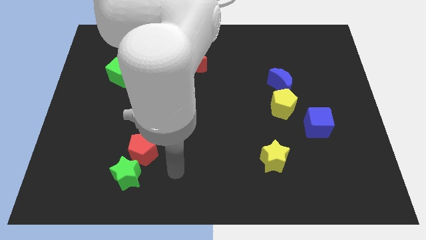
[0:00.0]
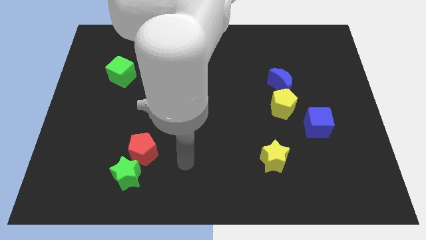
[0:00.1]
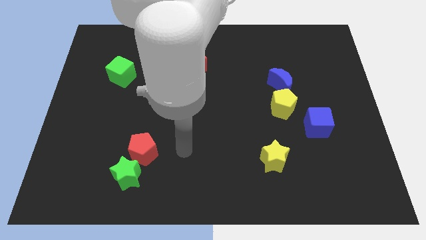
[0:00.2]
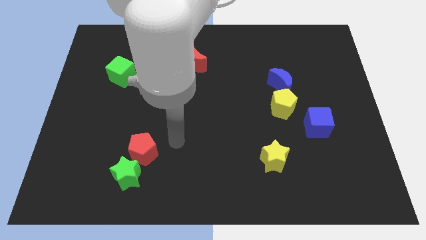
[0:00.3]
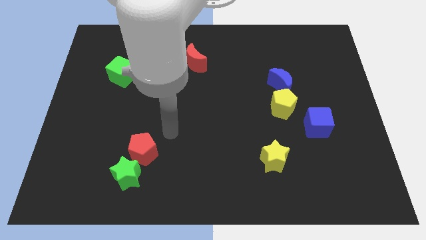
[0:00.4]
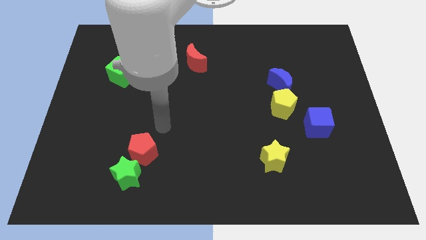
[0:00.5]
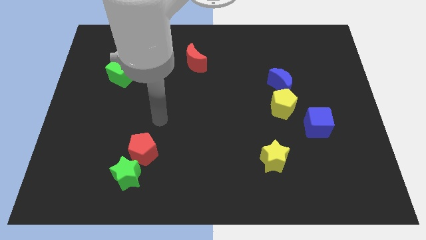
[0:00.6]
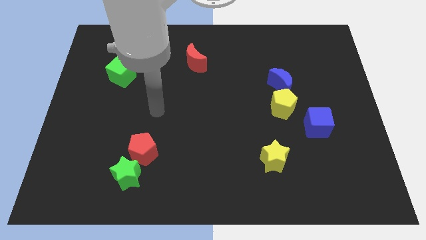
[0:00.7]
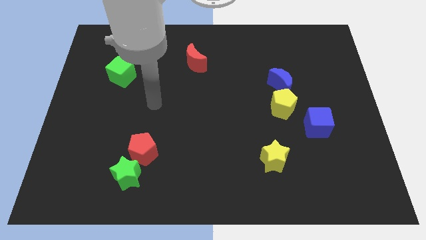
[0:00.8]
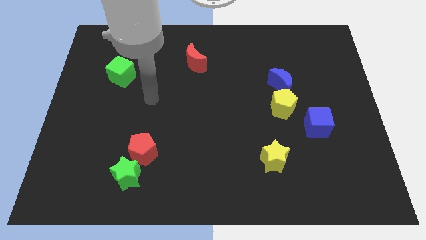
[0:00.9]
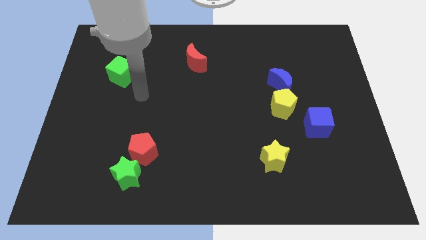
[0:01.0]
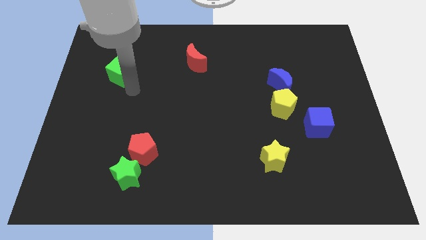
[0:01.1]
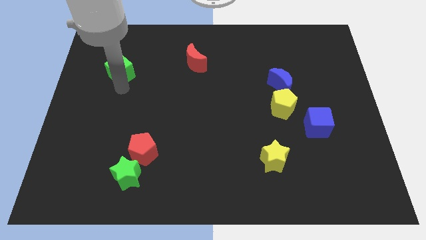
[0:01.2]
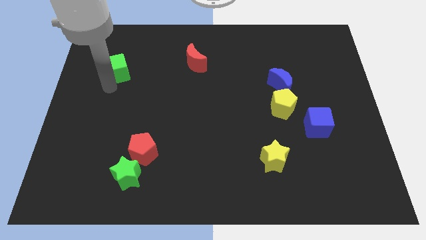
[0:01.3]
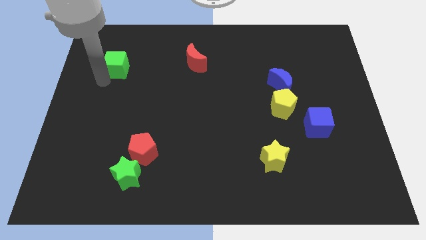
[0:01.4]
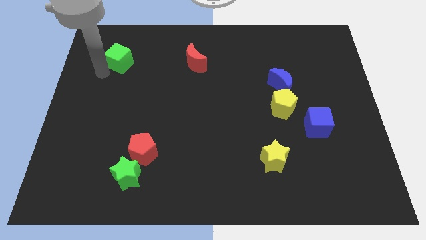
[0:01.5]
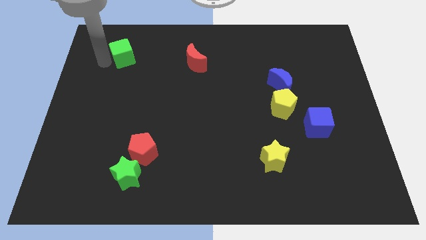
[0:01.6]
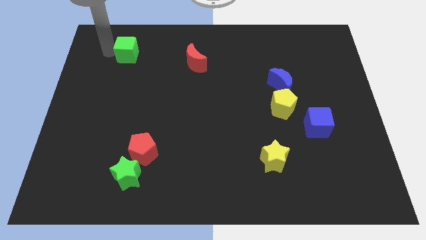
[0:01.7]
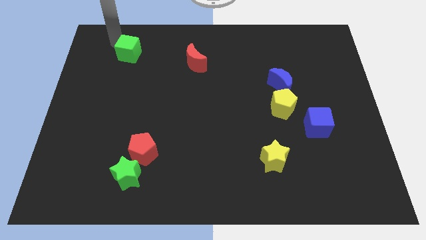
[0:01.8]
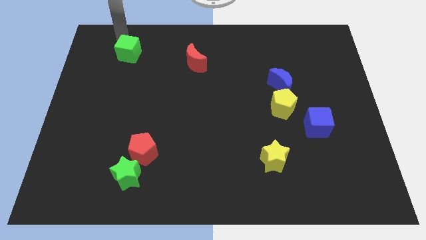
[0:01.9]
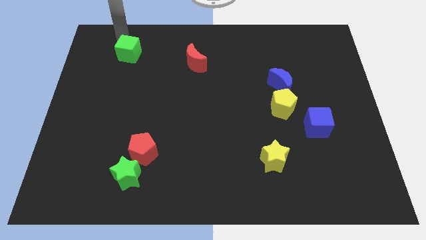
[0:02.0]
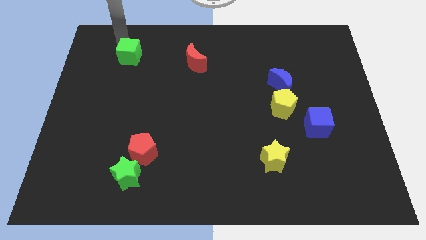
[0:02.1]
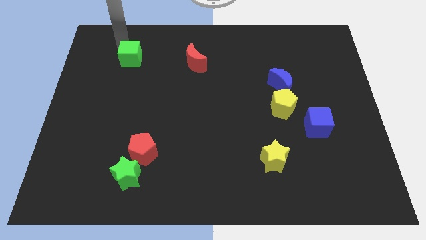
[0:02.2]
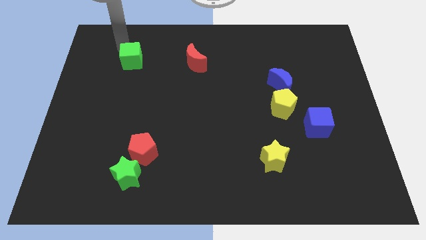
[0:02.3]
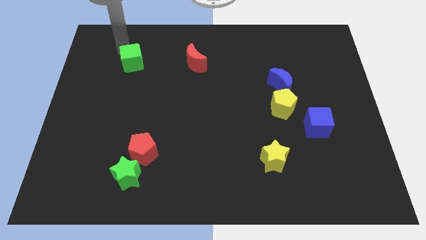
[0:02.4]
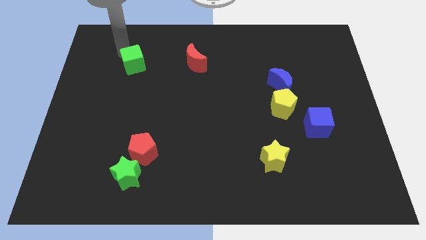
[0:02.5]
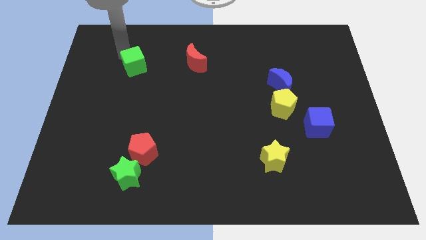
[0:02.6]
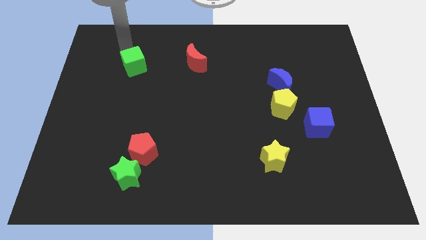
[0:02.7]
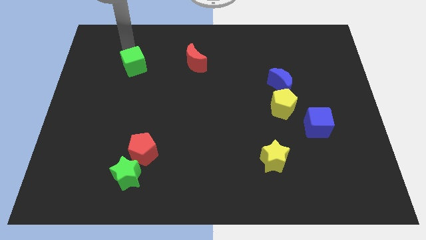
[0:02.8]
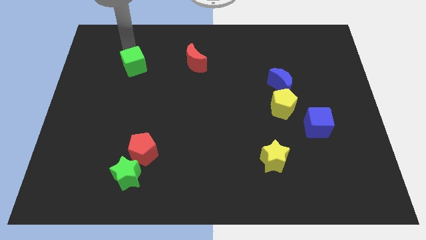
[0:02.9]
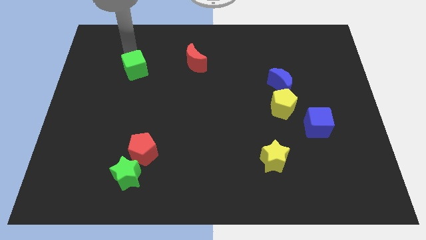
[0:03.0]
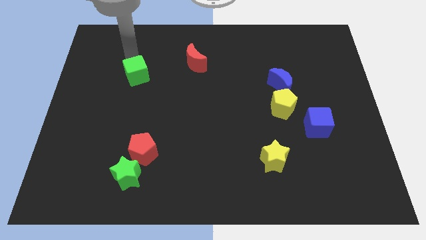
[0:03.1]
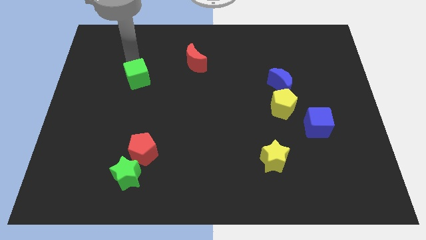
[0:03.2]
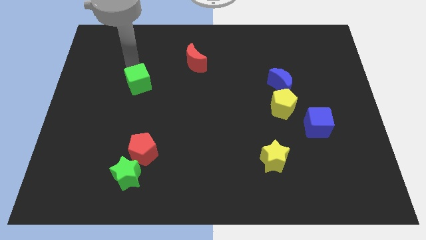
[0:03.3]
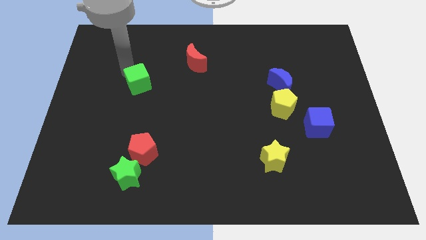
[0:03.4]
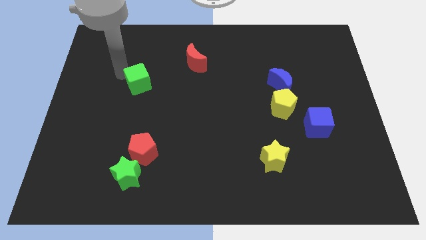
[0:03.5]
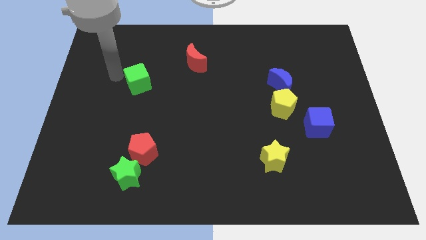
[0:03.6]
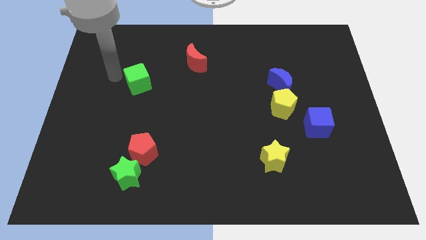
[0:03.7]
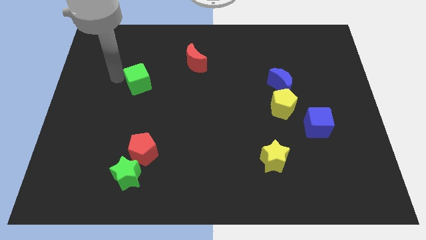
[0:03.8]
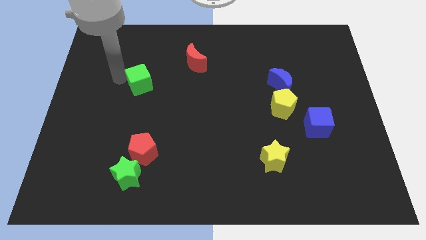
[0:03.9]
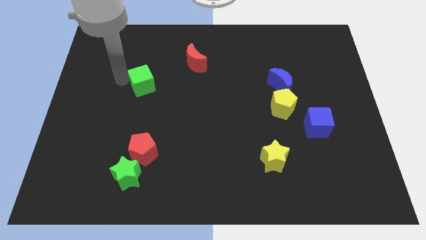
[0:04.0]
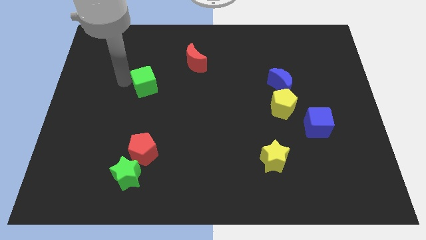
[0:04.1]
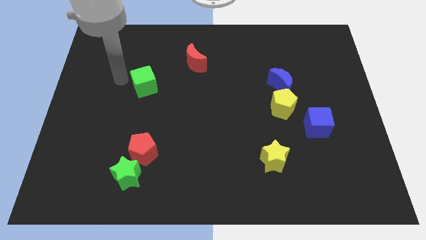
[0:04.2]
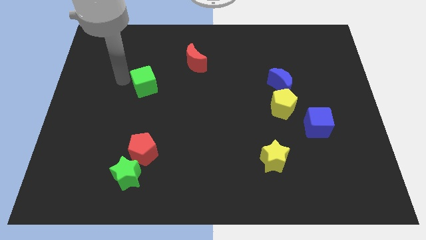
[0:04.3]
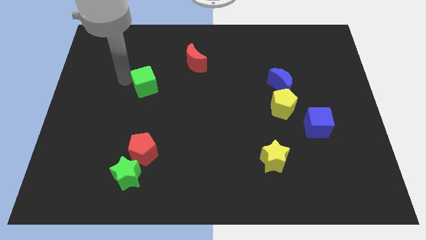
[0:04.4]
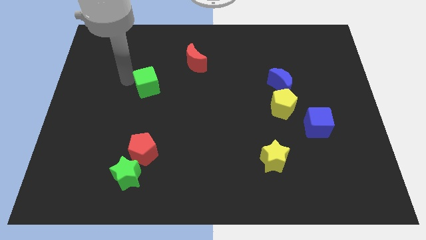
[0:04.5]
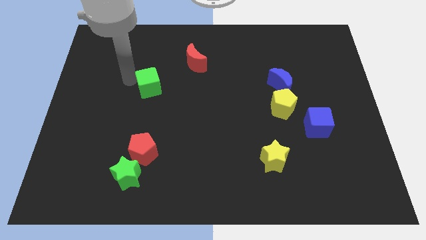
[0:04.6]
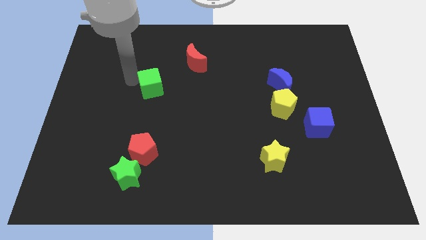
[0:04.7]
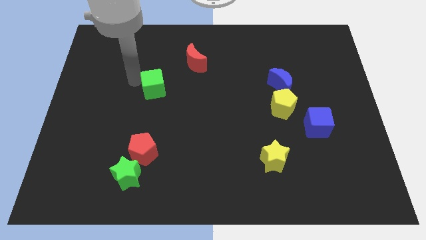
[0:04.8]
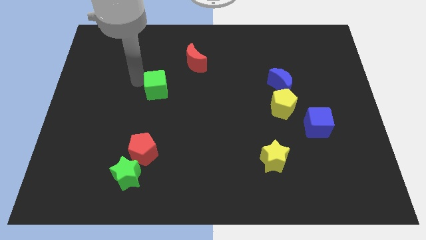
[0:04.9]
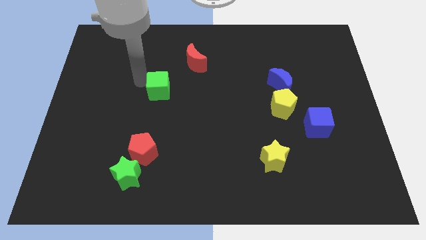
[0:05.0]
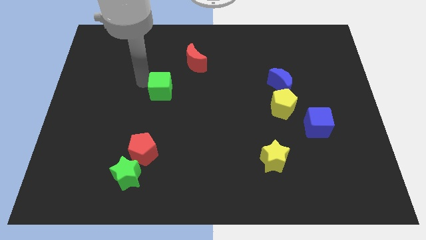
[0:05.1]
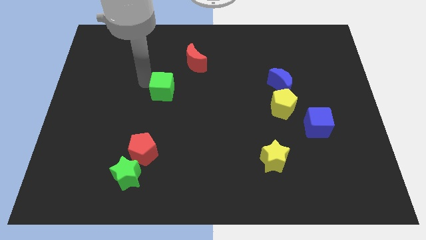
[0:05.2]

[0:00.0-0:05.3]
put the green cube to the center

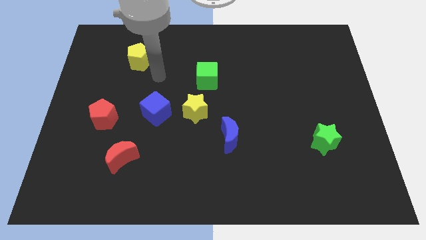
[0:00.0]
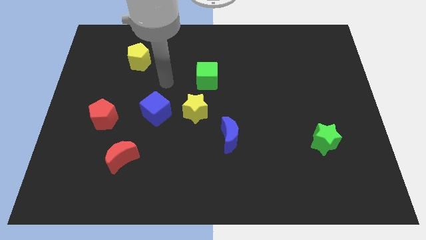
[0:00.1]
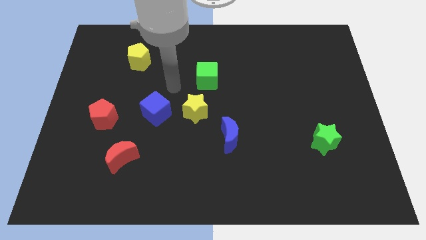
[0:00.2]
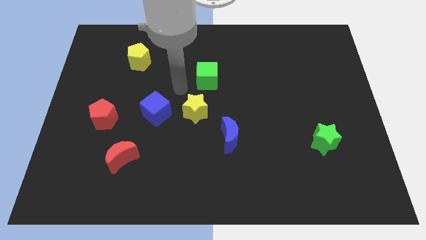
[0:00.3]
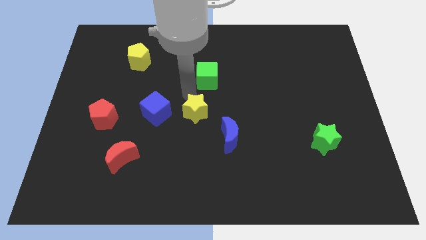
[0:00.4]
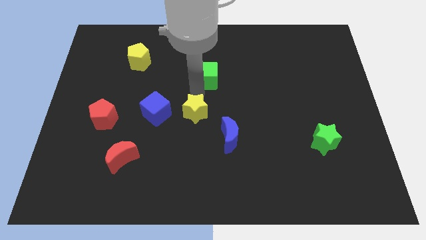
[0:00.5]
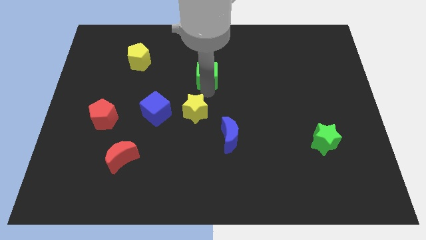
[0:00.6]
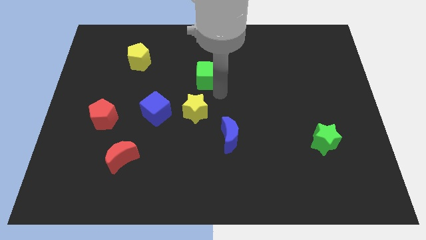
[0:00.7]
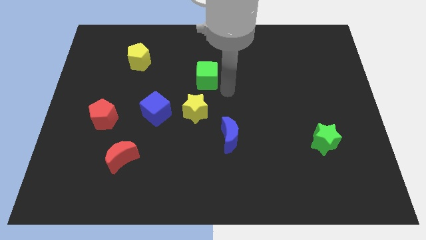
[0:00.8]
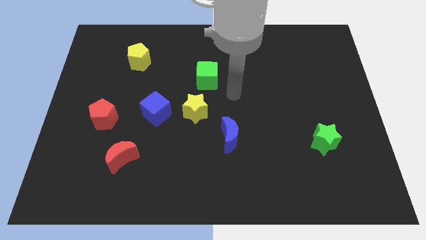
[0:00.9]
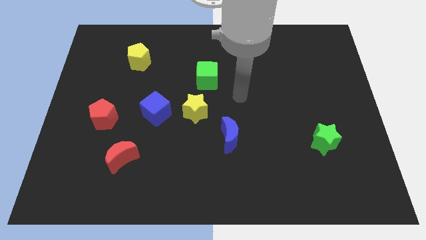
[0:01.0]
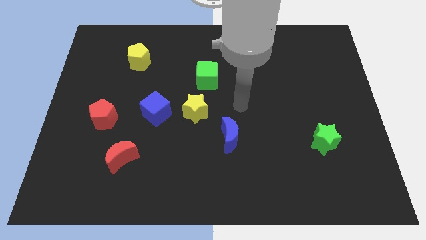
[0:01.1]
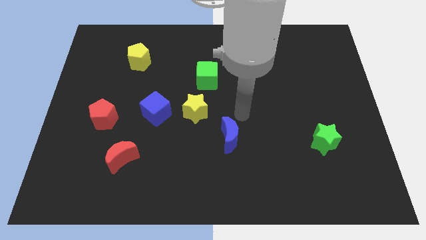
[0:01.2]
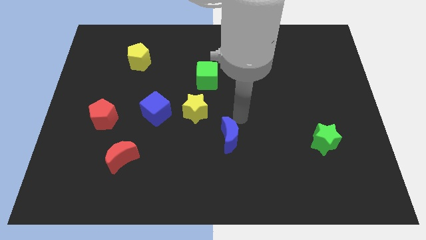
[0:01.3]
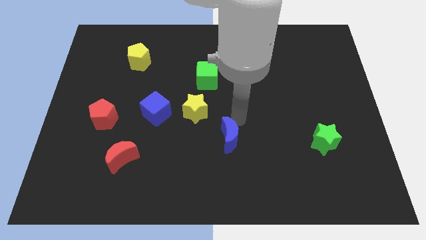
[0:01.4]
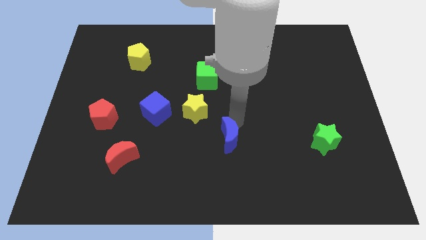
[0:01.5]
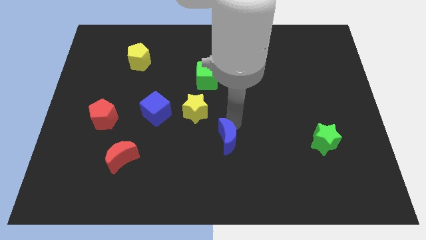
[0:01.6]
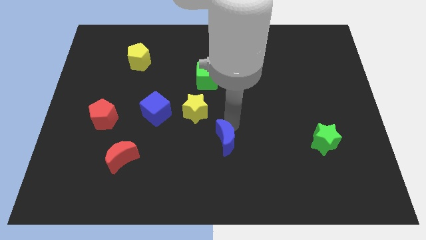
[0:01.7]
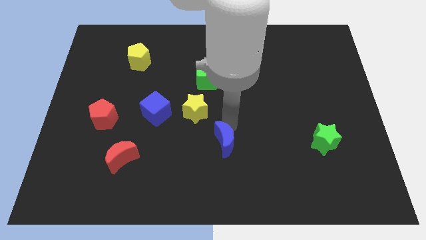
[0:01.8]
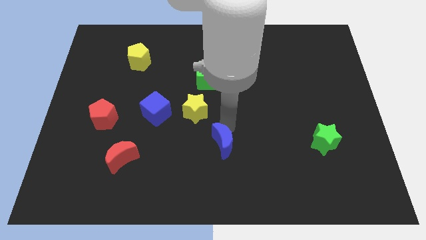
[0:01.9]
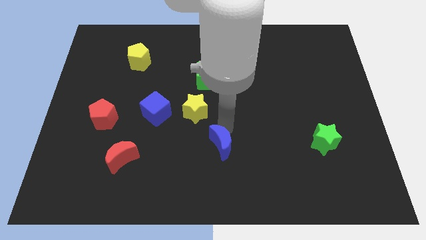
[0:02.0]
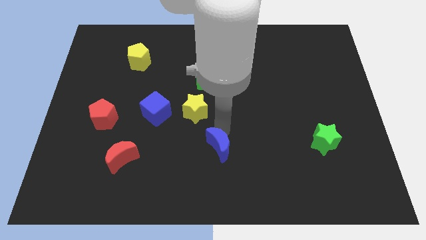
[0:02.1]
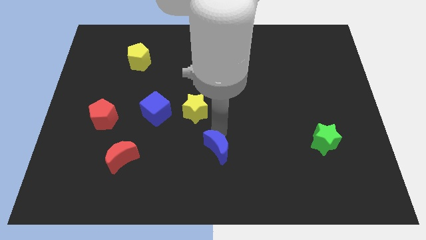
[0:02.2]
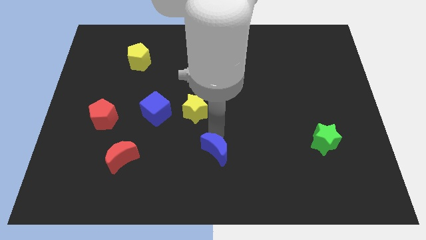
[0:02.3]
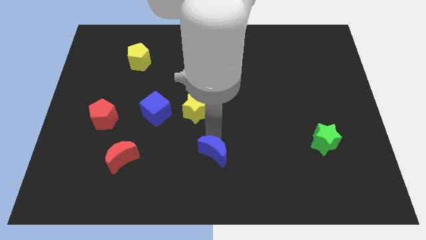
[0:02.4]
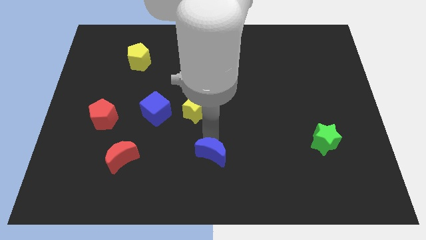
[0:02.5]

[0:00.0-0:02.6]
move the blue moon to the bottom side
